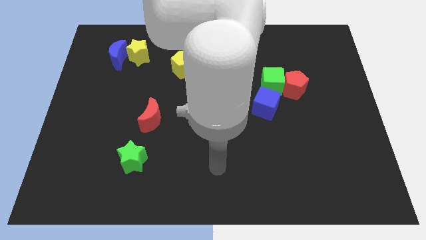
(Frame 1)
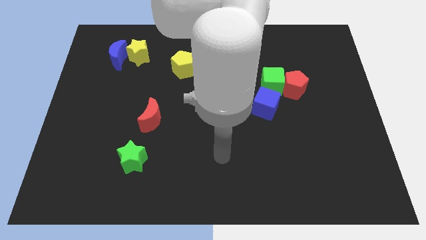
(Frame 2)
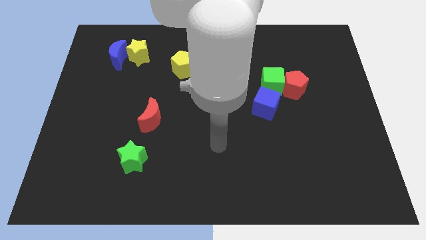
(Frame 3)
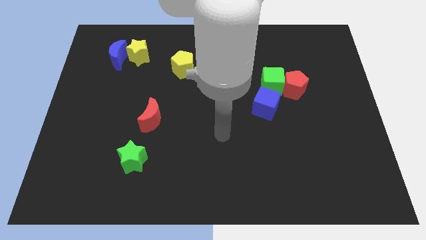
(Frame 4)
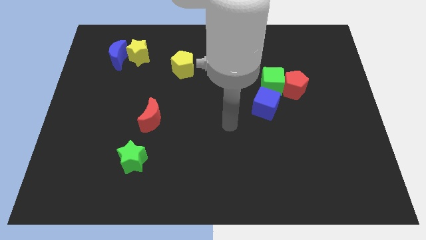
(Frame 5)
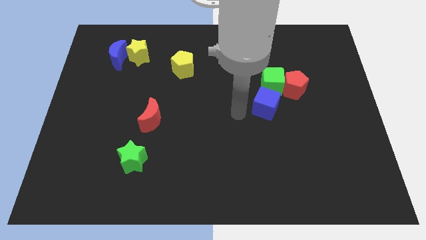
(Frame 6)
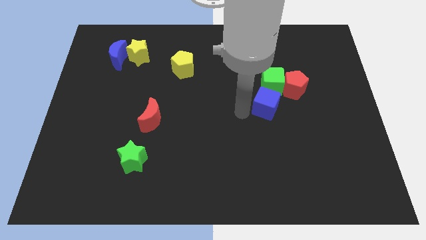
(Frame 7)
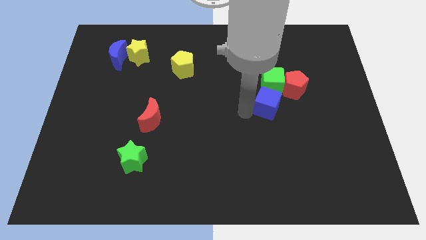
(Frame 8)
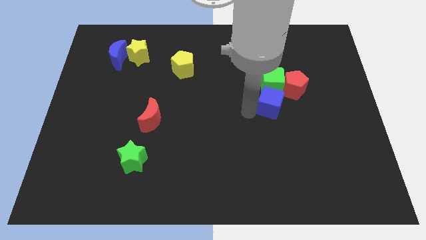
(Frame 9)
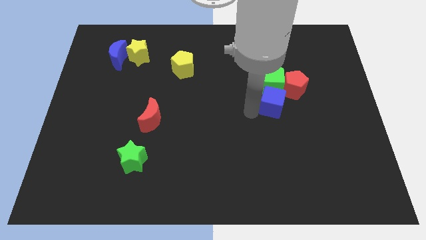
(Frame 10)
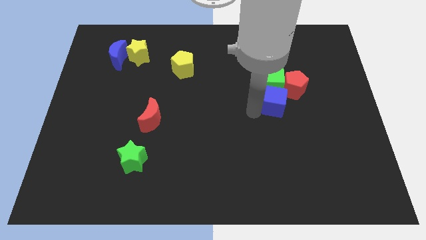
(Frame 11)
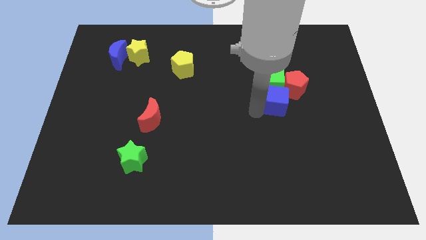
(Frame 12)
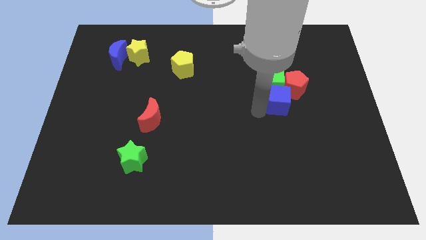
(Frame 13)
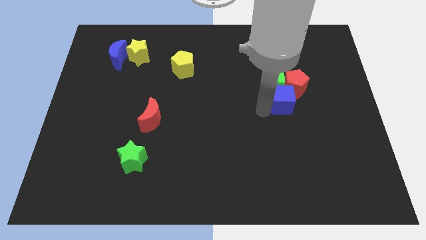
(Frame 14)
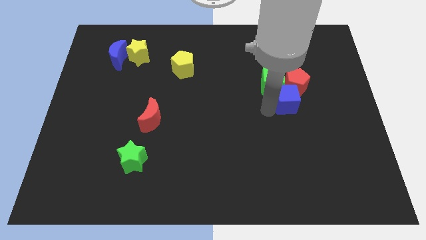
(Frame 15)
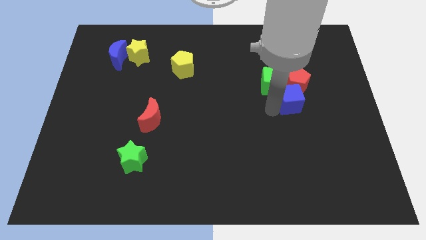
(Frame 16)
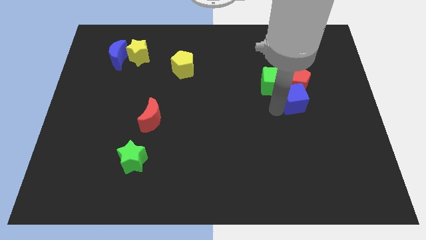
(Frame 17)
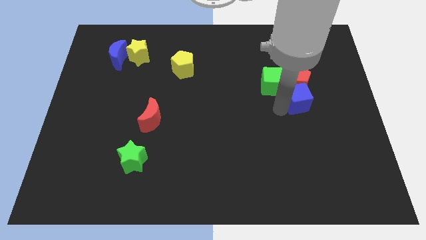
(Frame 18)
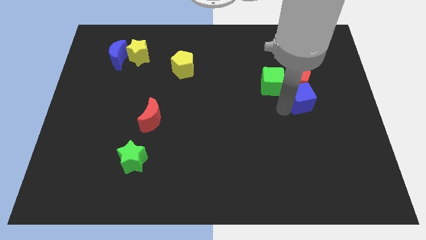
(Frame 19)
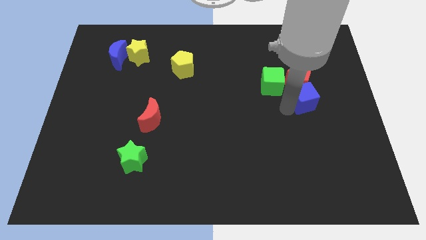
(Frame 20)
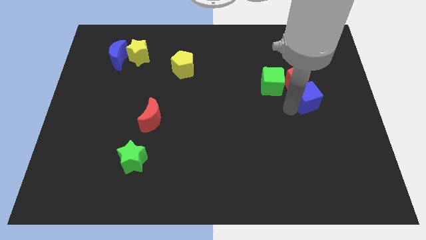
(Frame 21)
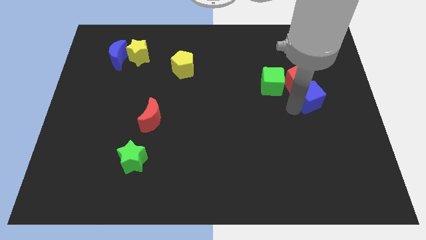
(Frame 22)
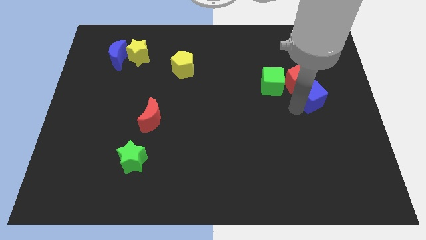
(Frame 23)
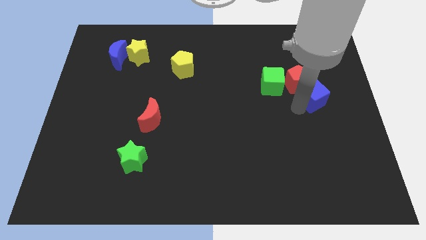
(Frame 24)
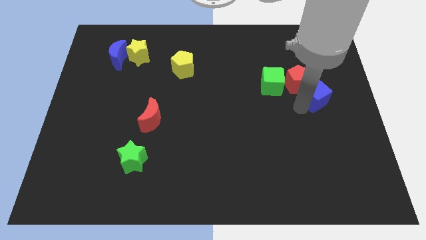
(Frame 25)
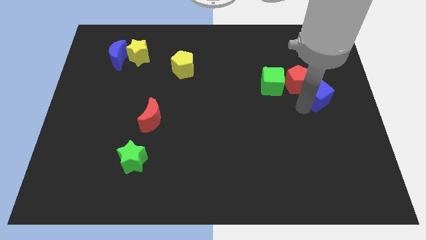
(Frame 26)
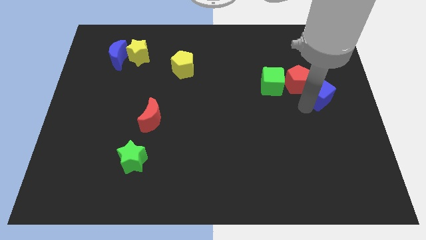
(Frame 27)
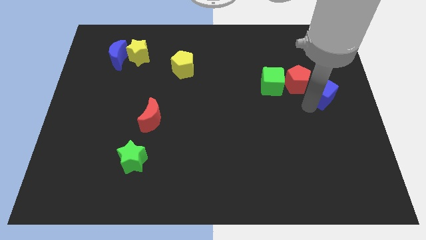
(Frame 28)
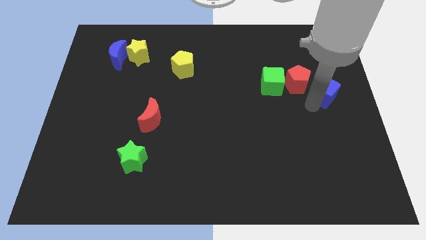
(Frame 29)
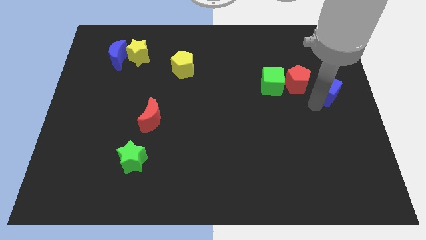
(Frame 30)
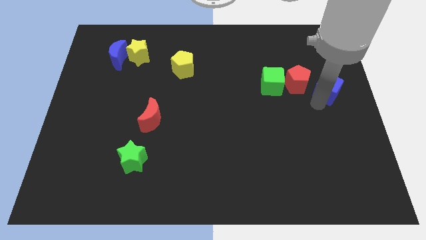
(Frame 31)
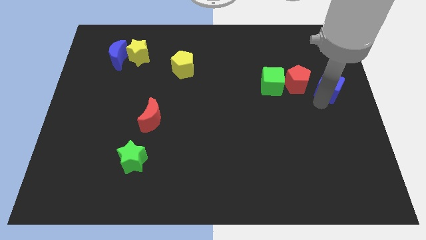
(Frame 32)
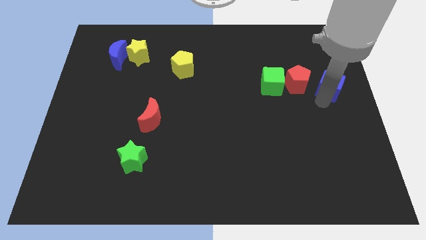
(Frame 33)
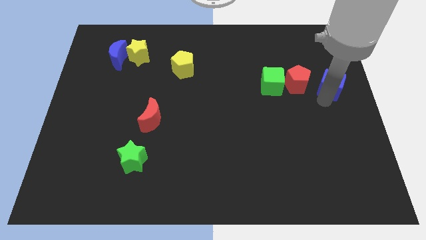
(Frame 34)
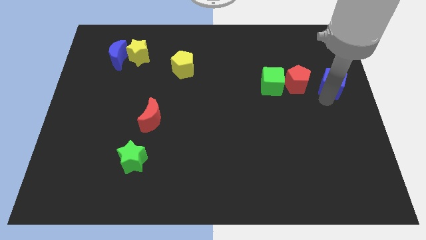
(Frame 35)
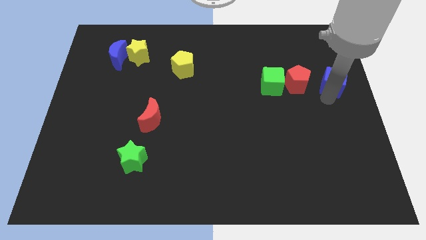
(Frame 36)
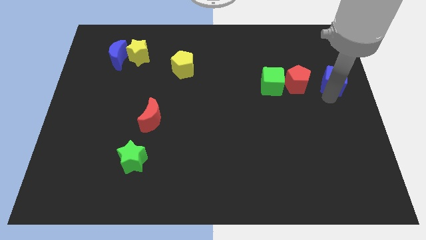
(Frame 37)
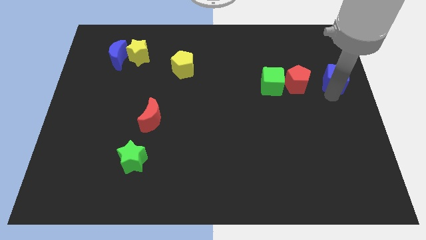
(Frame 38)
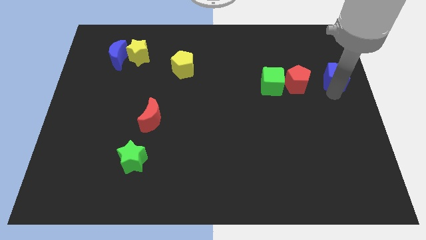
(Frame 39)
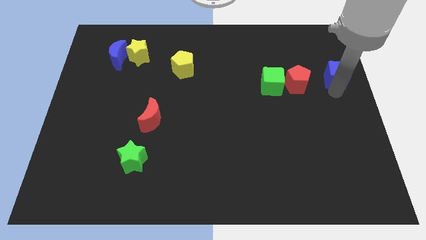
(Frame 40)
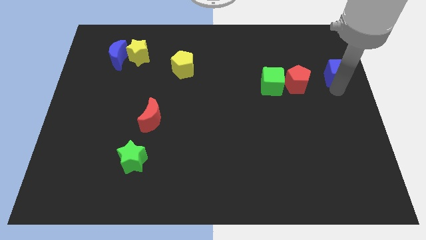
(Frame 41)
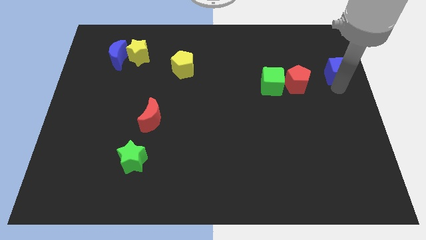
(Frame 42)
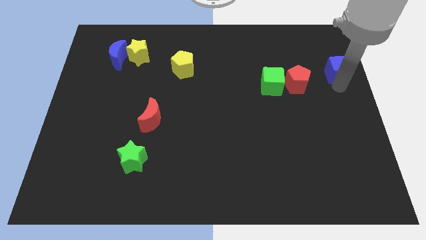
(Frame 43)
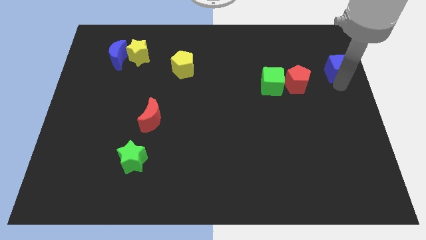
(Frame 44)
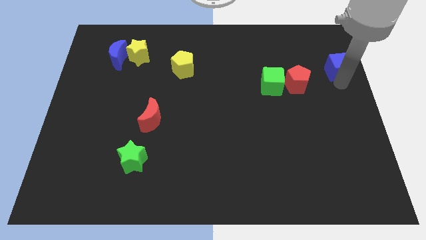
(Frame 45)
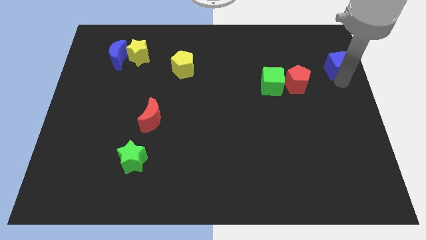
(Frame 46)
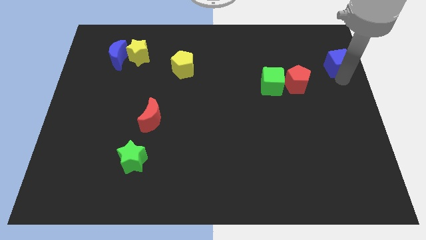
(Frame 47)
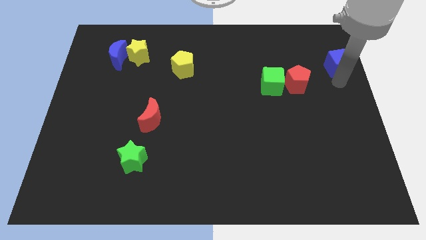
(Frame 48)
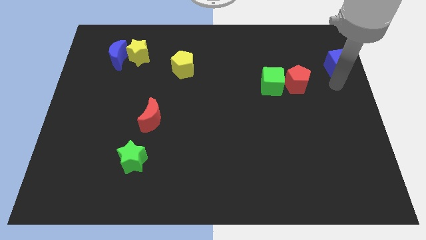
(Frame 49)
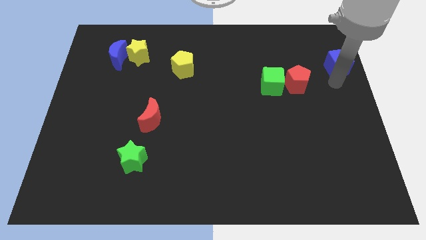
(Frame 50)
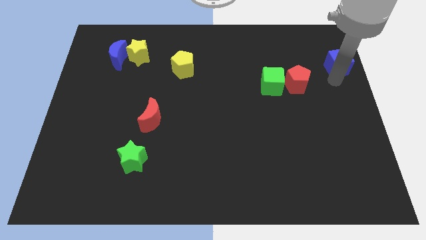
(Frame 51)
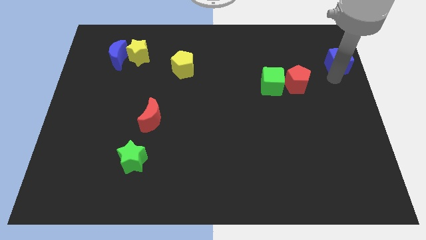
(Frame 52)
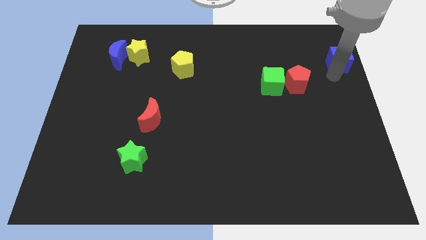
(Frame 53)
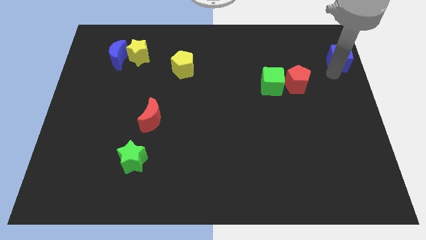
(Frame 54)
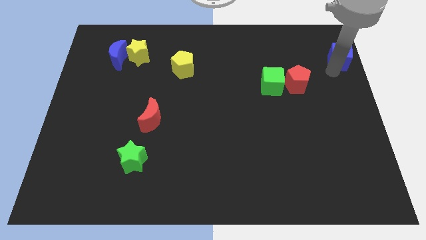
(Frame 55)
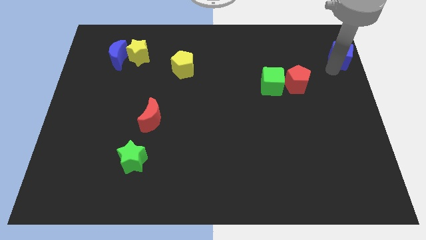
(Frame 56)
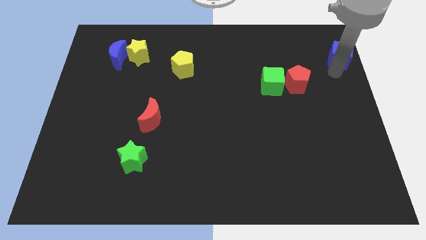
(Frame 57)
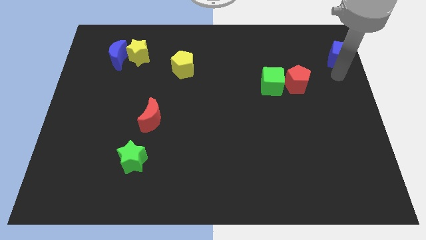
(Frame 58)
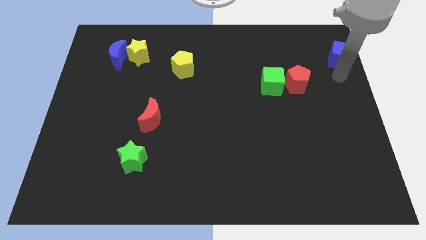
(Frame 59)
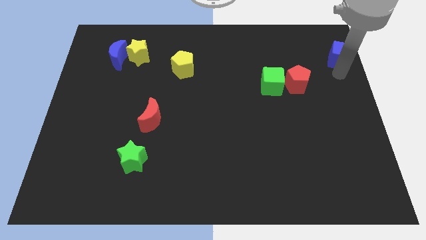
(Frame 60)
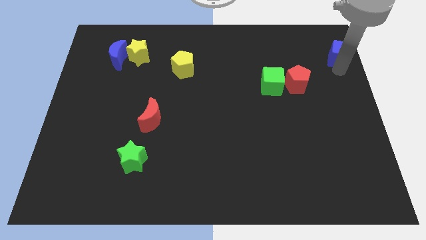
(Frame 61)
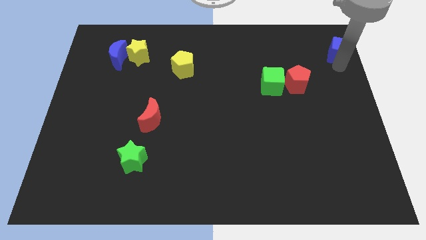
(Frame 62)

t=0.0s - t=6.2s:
move the blue cube to the top right of the board

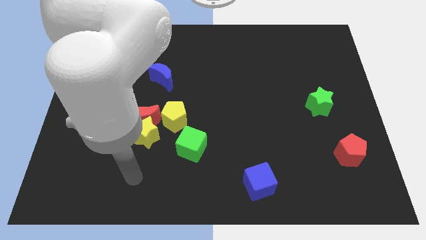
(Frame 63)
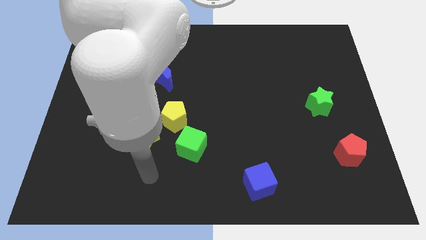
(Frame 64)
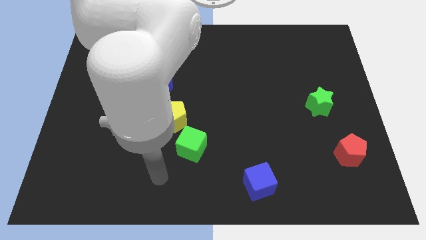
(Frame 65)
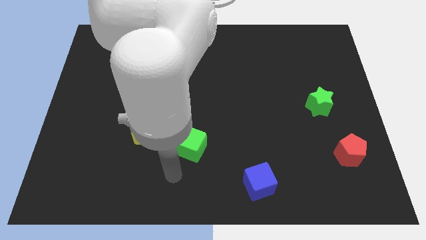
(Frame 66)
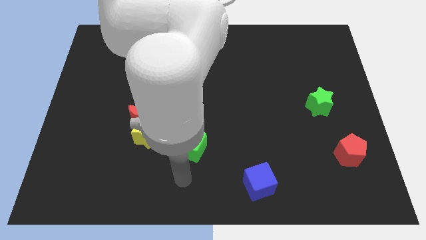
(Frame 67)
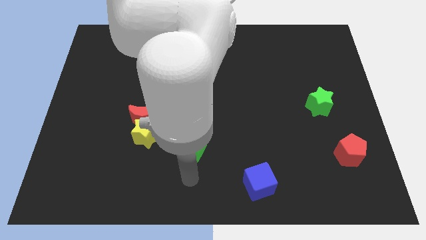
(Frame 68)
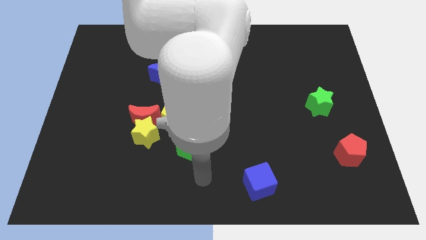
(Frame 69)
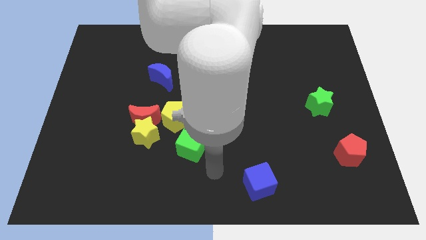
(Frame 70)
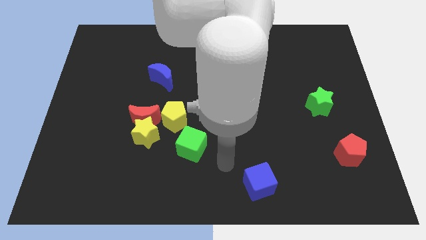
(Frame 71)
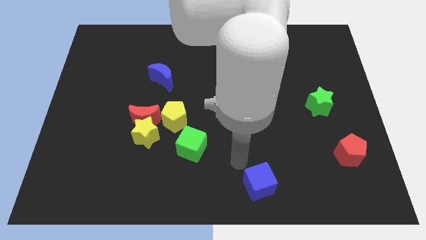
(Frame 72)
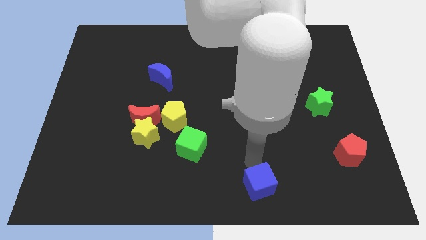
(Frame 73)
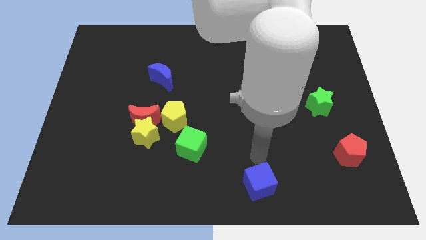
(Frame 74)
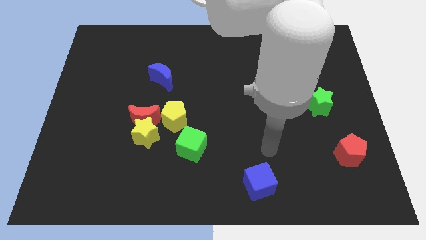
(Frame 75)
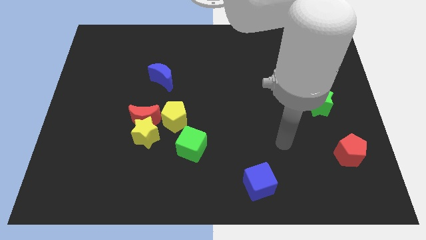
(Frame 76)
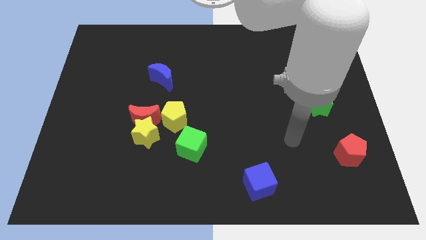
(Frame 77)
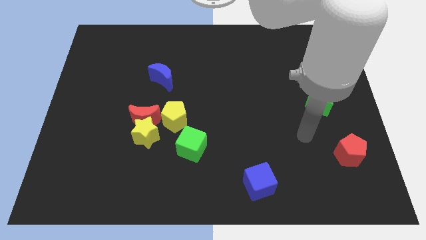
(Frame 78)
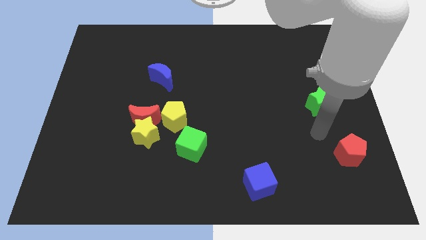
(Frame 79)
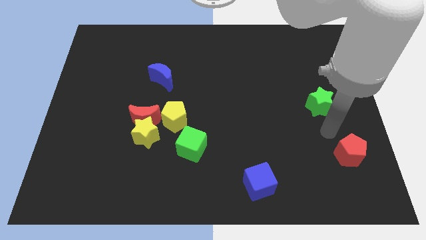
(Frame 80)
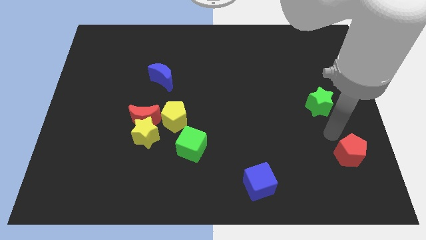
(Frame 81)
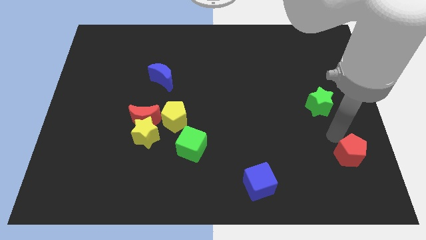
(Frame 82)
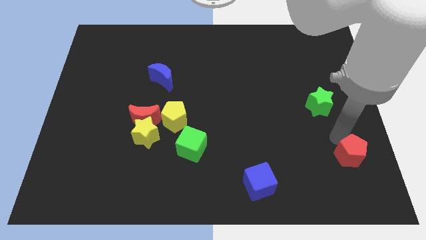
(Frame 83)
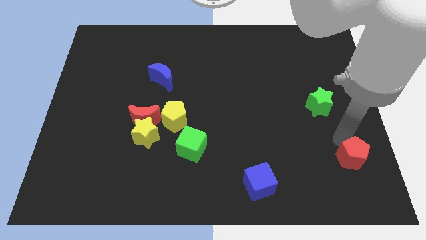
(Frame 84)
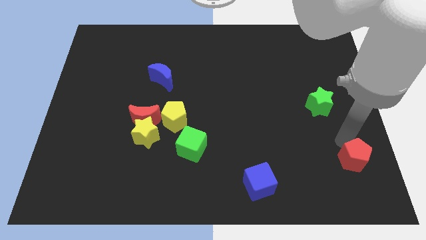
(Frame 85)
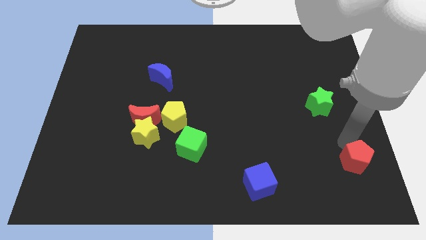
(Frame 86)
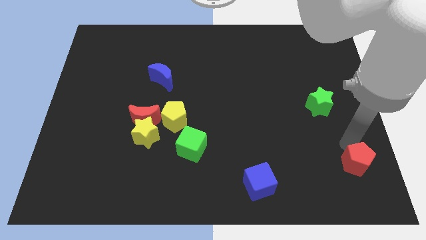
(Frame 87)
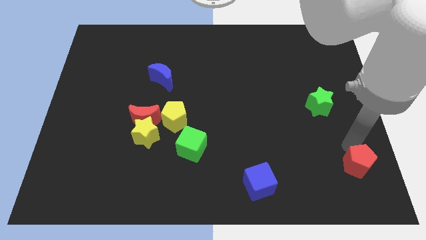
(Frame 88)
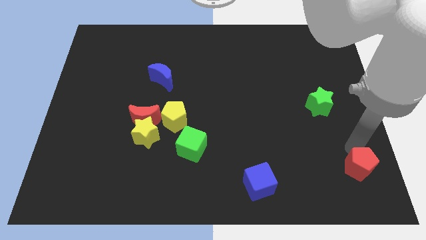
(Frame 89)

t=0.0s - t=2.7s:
put the red pentagon to the bottom right of the board
